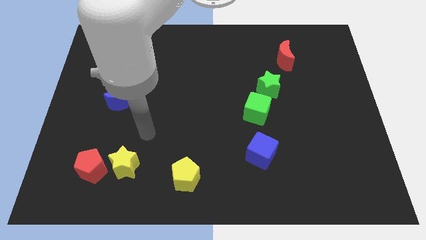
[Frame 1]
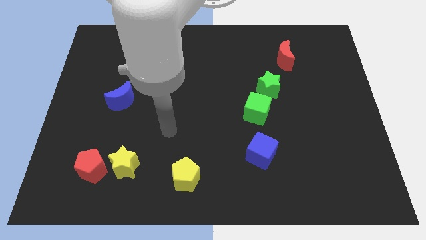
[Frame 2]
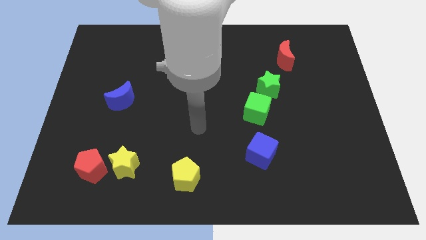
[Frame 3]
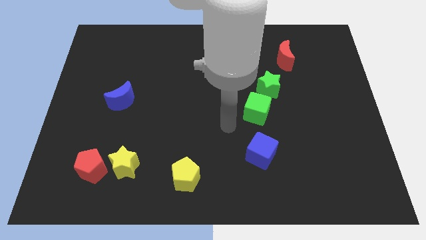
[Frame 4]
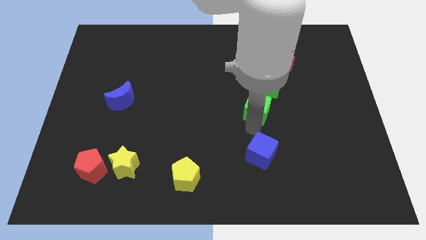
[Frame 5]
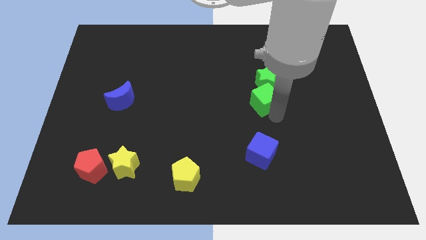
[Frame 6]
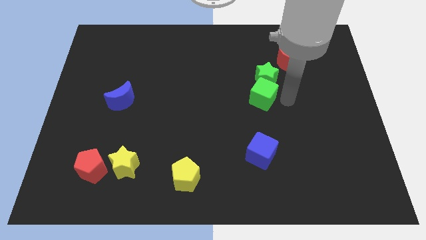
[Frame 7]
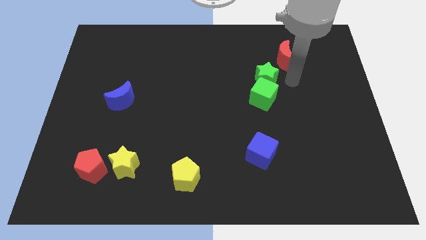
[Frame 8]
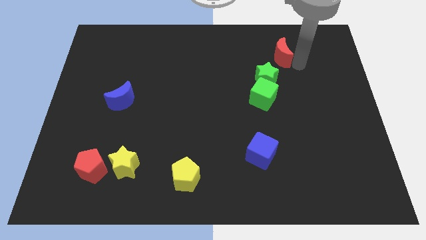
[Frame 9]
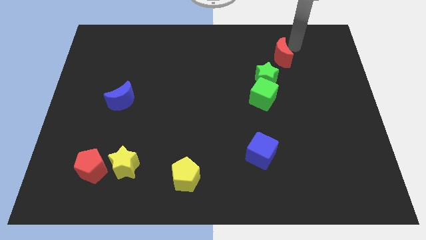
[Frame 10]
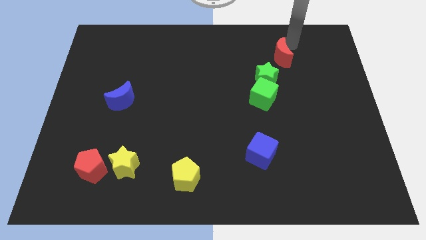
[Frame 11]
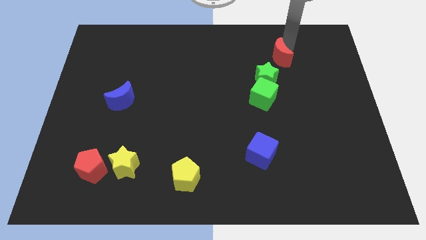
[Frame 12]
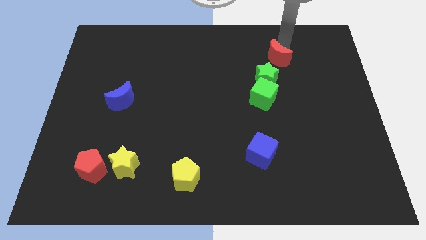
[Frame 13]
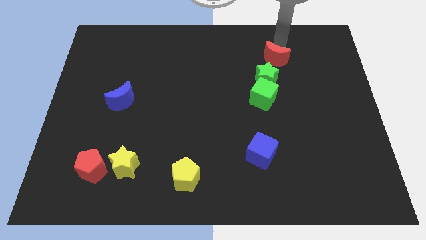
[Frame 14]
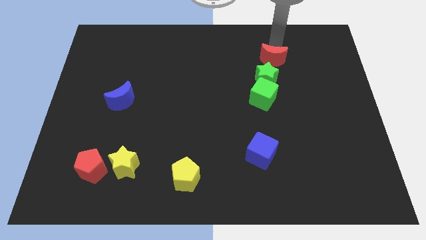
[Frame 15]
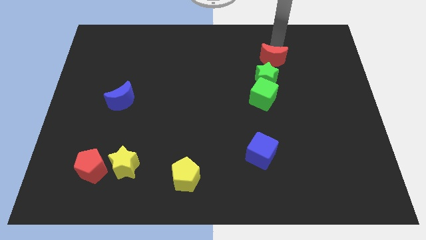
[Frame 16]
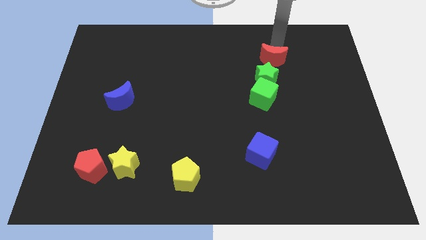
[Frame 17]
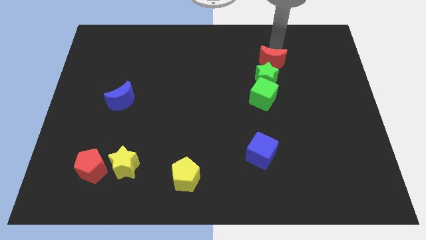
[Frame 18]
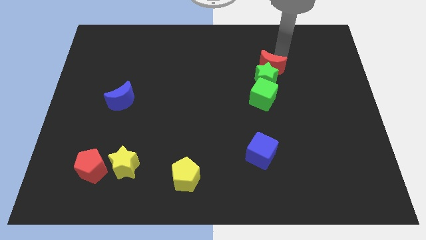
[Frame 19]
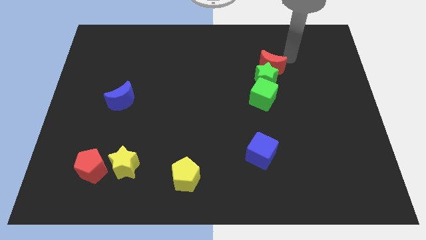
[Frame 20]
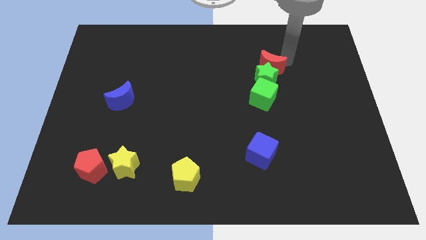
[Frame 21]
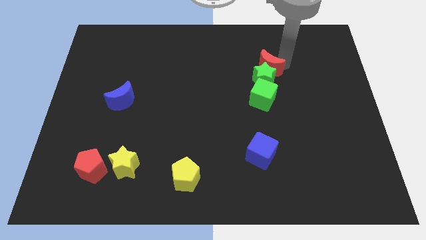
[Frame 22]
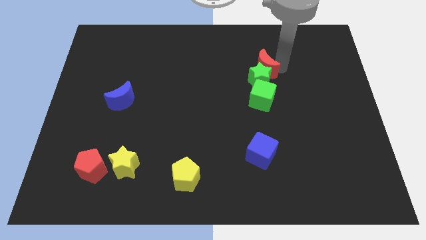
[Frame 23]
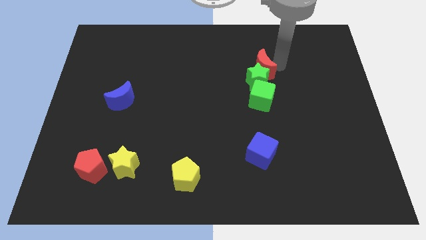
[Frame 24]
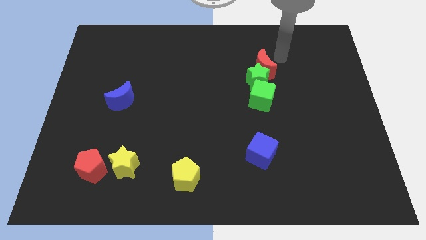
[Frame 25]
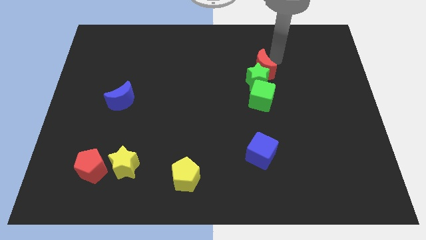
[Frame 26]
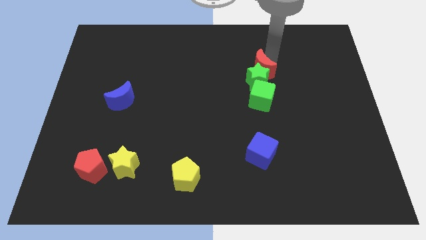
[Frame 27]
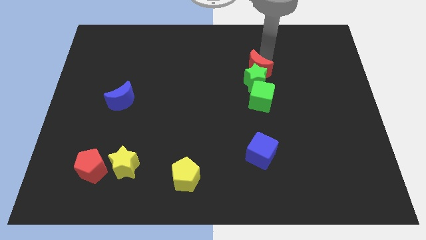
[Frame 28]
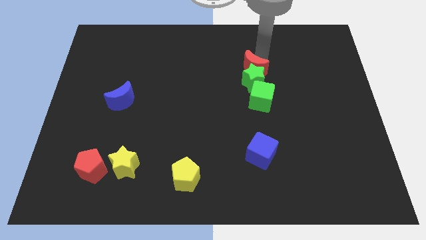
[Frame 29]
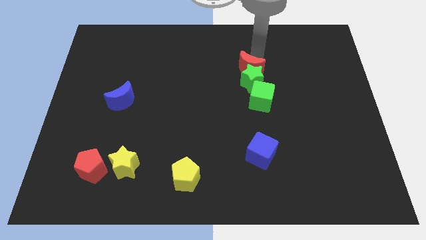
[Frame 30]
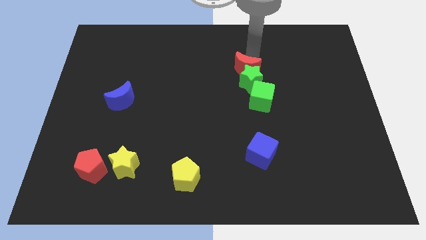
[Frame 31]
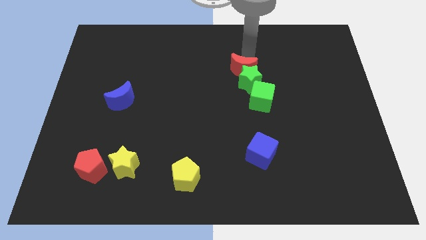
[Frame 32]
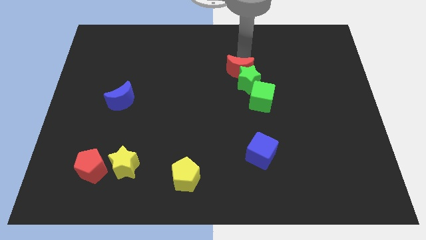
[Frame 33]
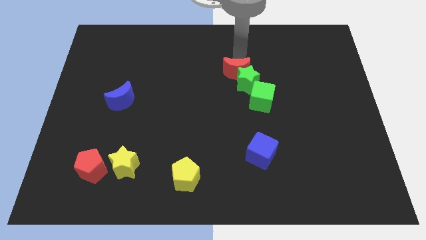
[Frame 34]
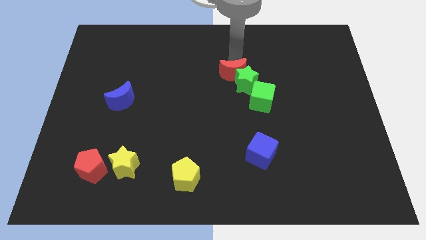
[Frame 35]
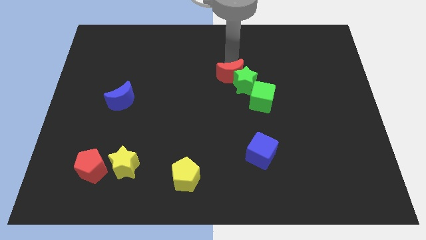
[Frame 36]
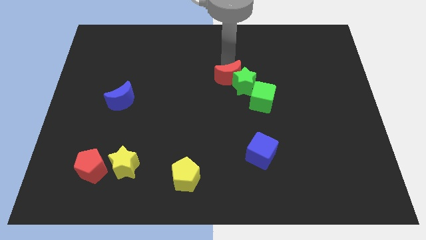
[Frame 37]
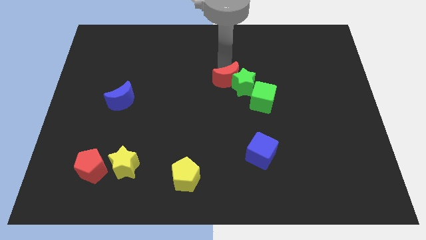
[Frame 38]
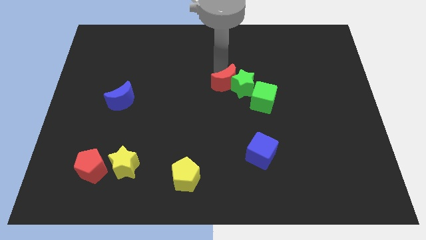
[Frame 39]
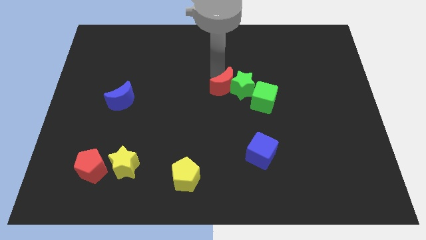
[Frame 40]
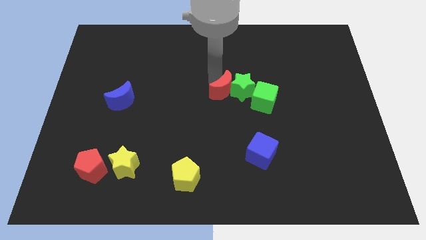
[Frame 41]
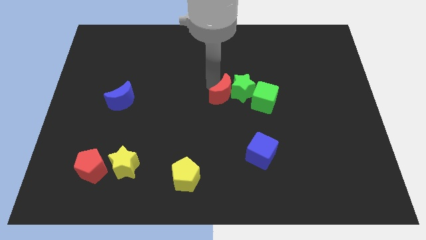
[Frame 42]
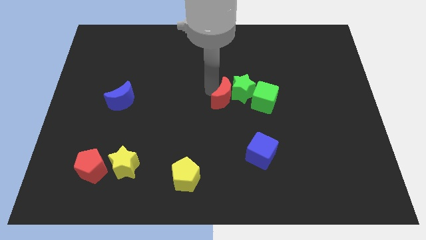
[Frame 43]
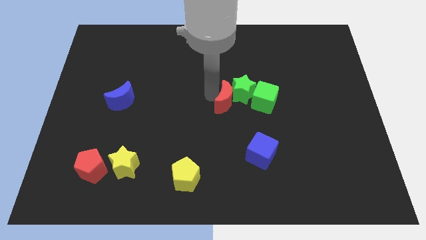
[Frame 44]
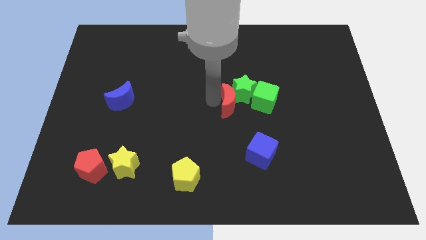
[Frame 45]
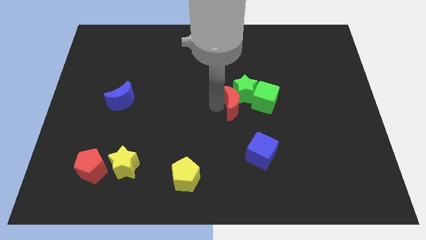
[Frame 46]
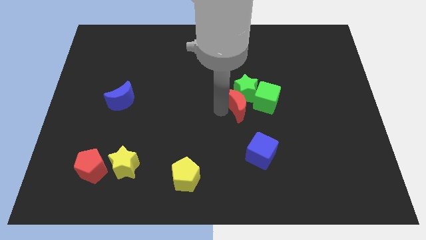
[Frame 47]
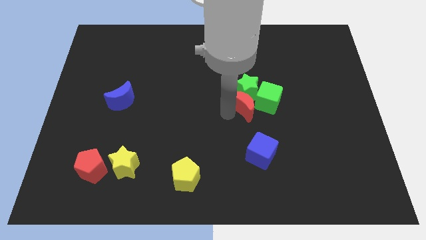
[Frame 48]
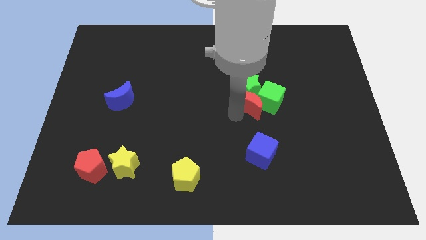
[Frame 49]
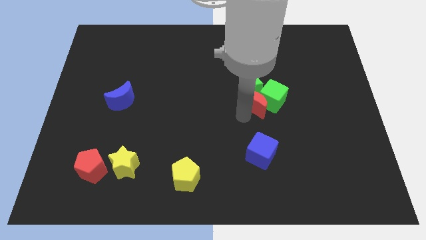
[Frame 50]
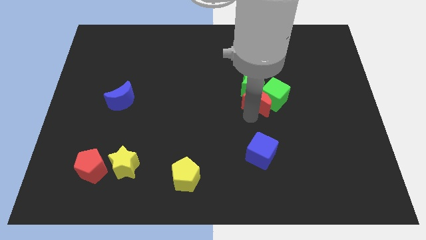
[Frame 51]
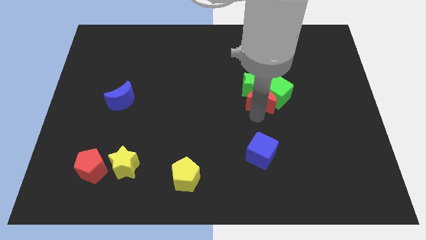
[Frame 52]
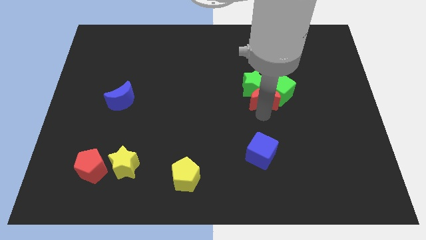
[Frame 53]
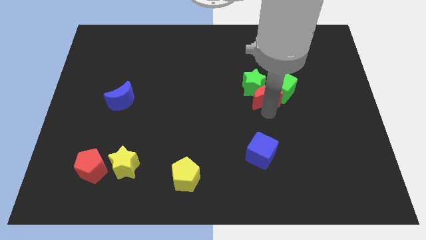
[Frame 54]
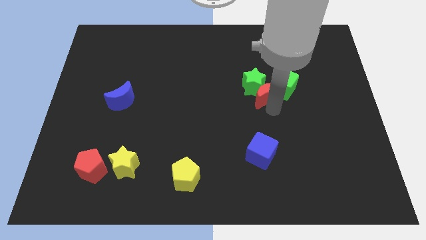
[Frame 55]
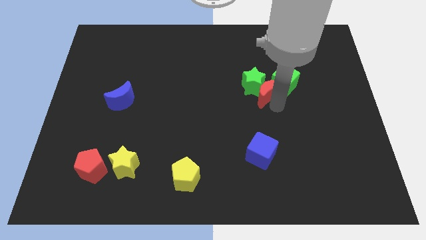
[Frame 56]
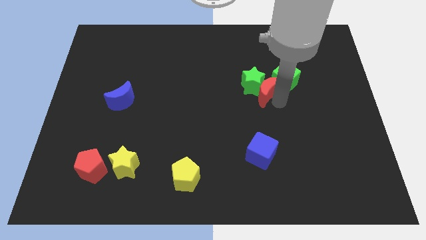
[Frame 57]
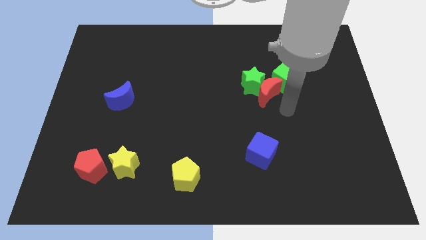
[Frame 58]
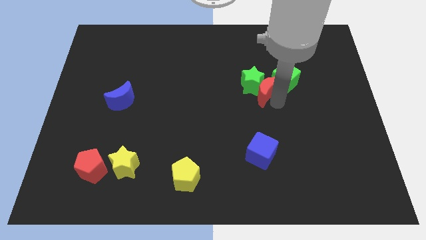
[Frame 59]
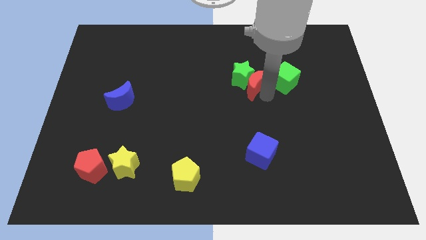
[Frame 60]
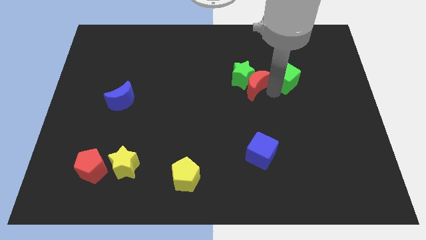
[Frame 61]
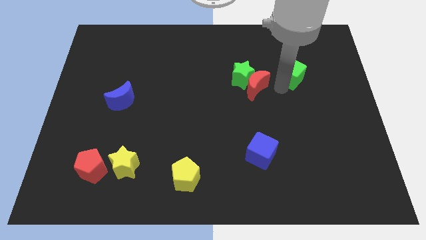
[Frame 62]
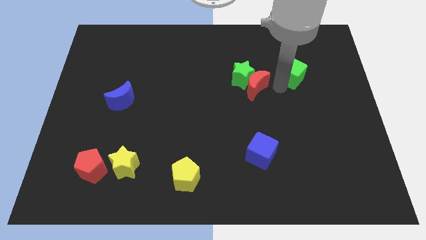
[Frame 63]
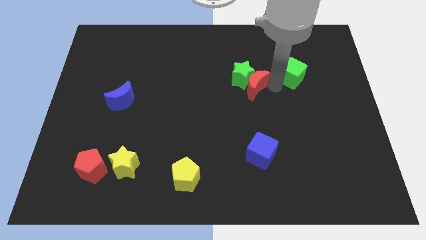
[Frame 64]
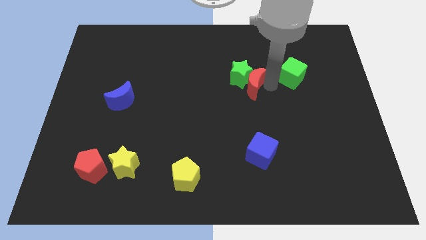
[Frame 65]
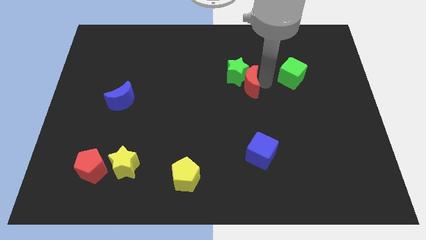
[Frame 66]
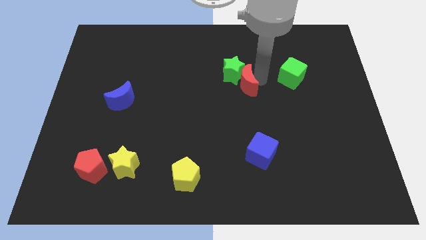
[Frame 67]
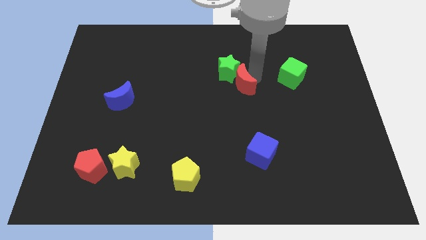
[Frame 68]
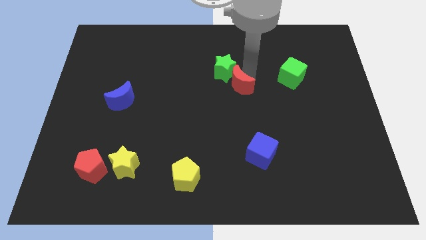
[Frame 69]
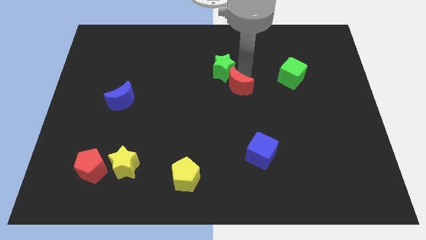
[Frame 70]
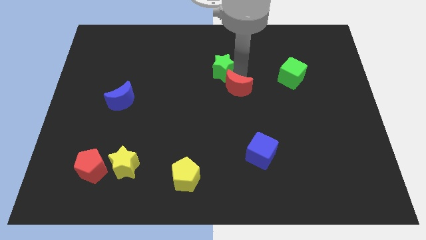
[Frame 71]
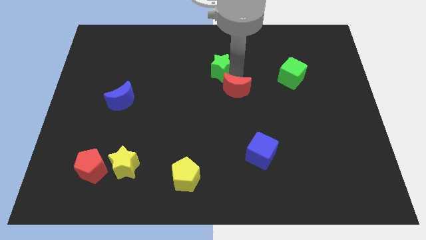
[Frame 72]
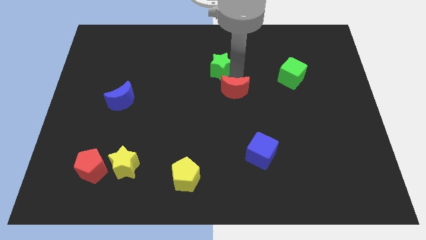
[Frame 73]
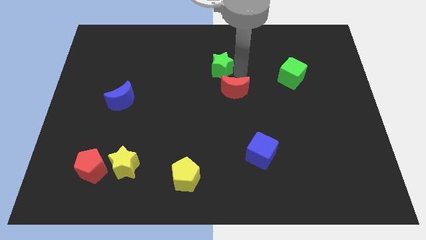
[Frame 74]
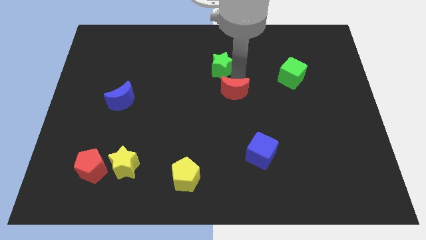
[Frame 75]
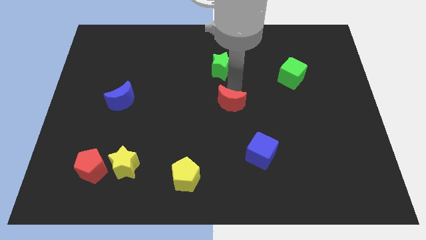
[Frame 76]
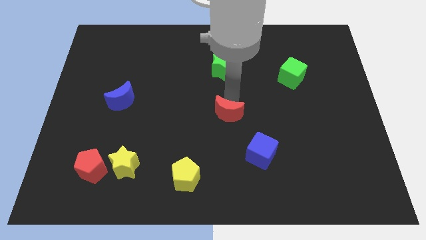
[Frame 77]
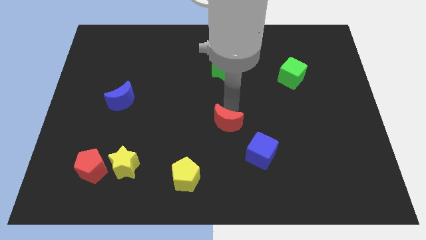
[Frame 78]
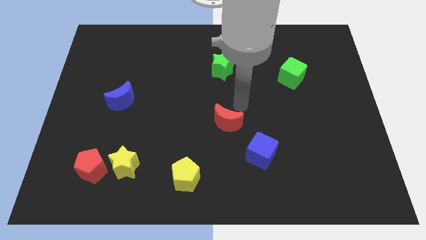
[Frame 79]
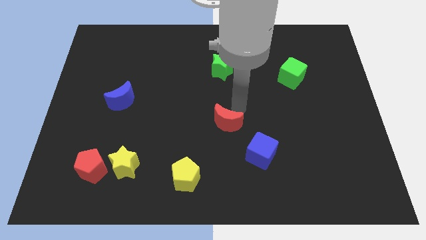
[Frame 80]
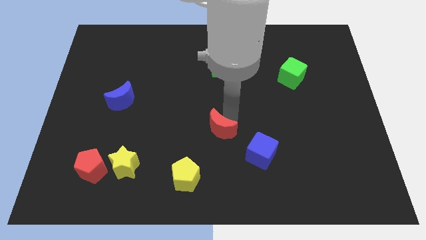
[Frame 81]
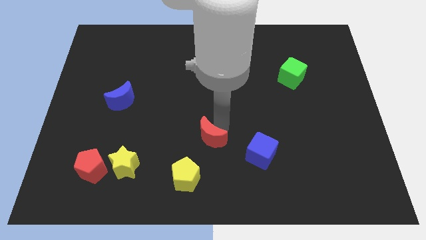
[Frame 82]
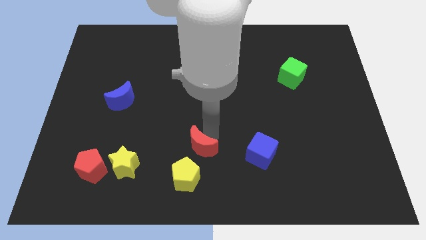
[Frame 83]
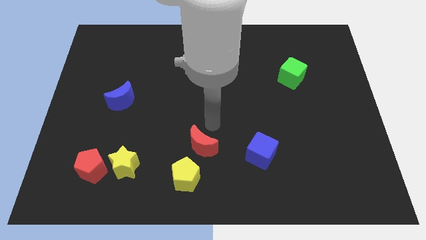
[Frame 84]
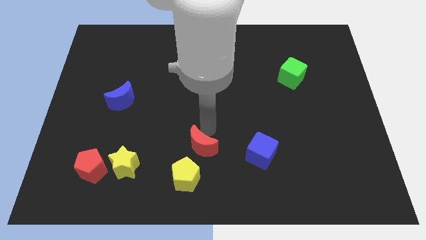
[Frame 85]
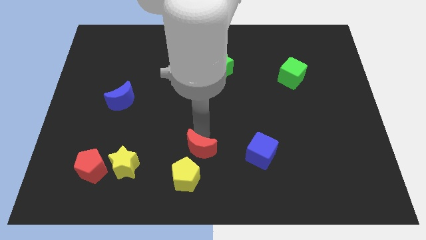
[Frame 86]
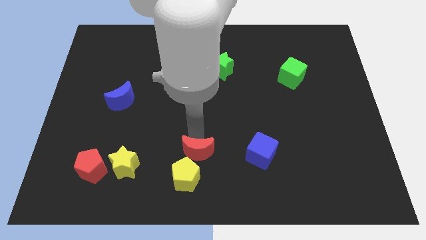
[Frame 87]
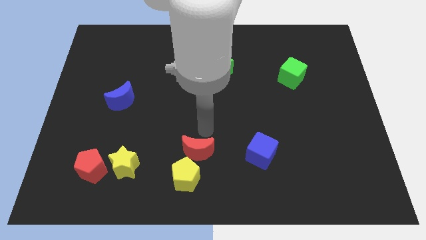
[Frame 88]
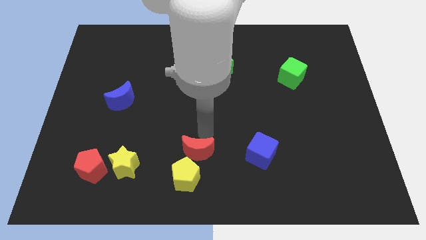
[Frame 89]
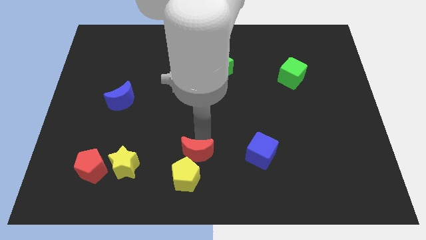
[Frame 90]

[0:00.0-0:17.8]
push the red moon next to the yellow pentagon
